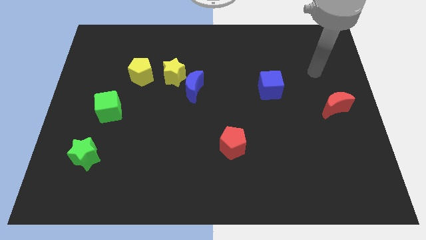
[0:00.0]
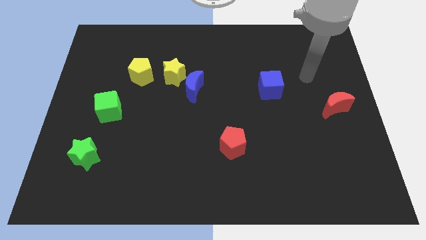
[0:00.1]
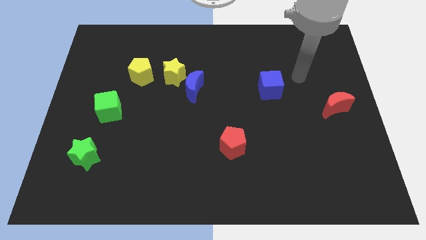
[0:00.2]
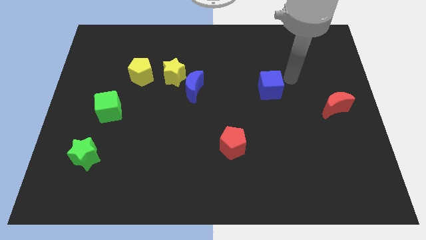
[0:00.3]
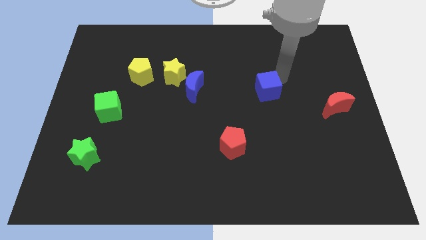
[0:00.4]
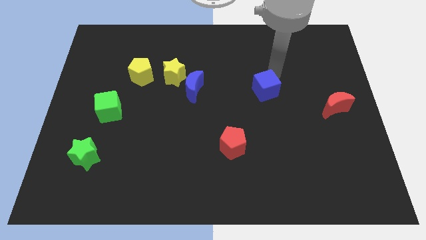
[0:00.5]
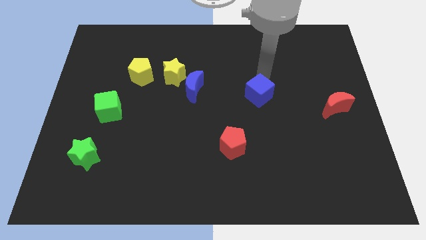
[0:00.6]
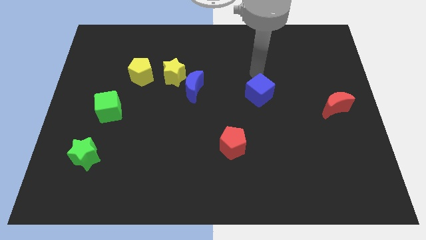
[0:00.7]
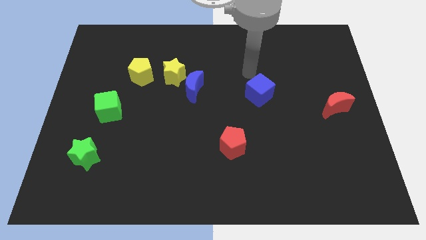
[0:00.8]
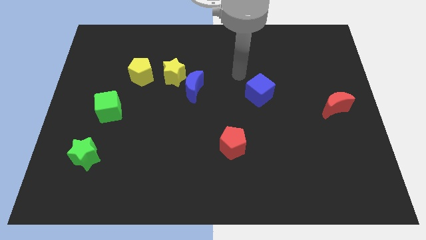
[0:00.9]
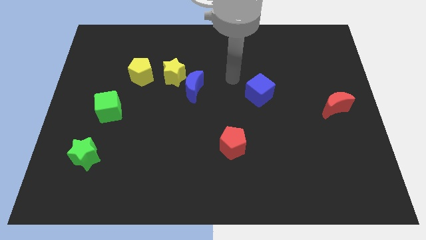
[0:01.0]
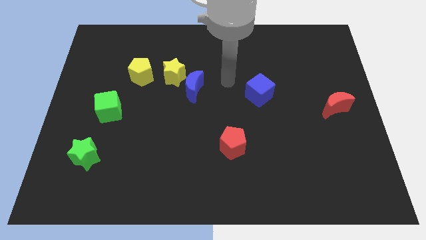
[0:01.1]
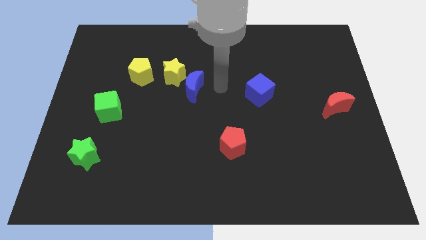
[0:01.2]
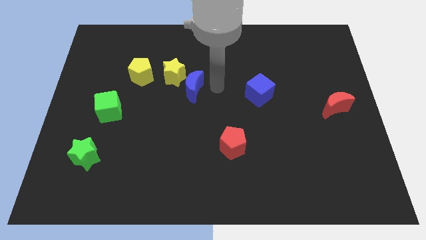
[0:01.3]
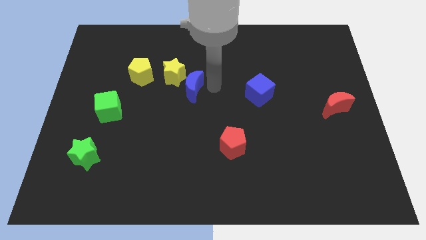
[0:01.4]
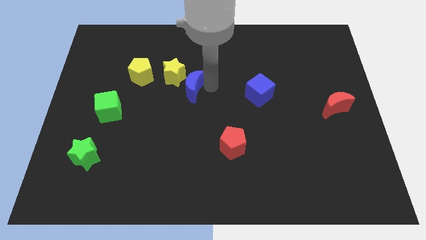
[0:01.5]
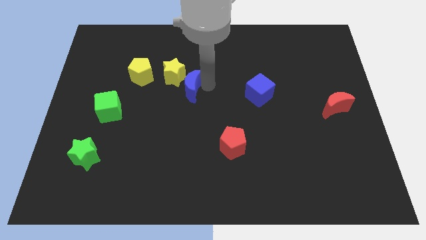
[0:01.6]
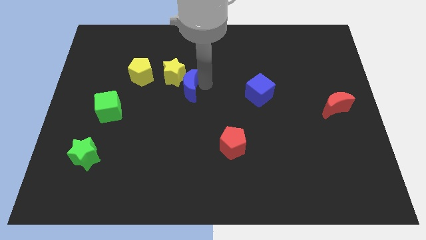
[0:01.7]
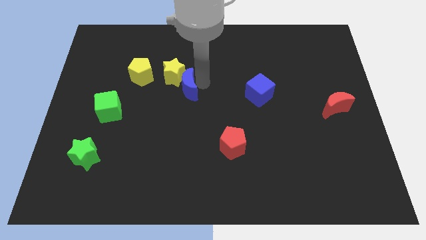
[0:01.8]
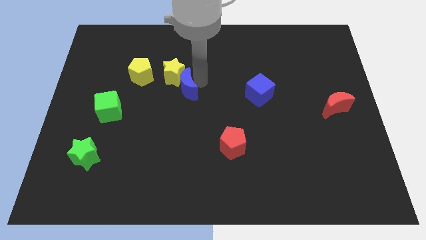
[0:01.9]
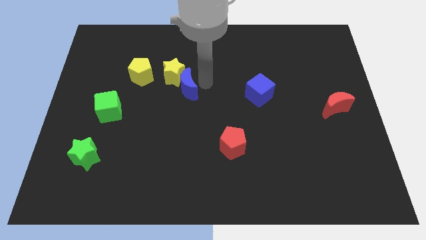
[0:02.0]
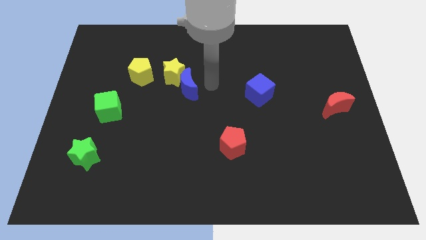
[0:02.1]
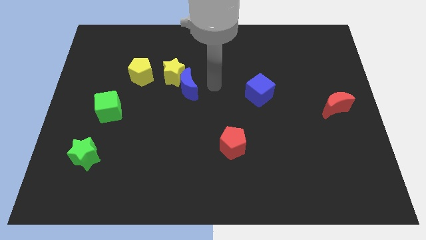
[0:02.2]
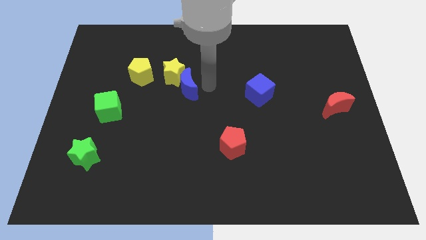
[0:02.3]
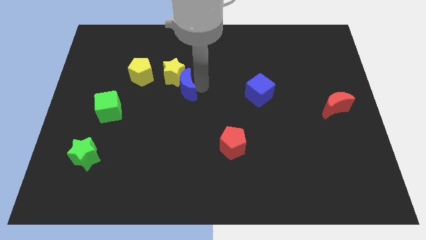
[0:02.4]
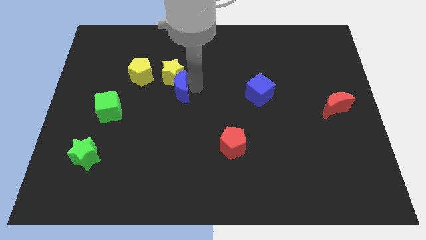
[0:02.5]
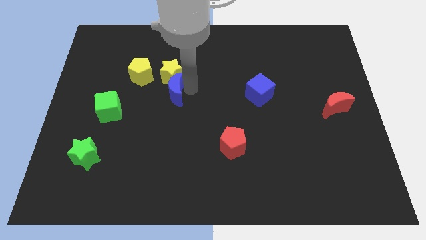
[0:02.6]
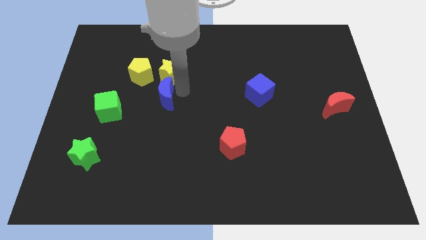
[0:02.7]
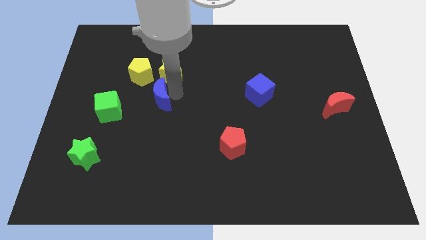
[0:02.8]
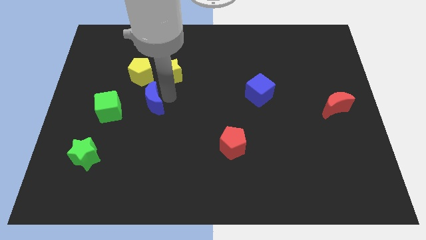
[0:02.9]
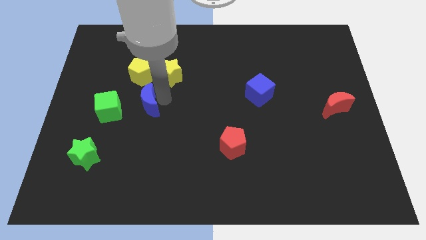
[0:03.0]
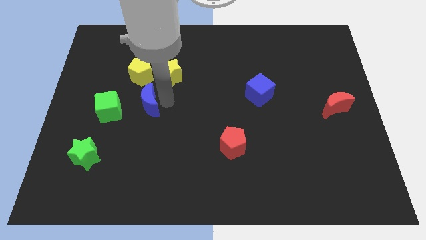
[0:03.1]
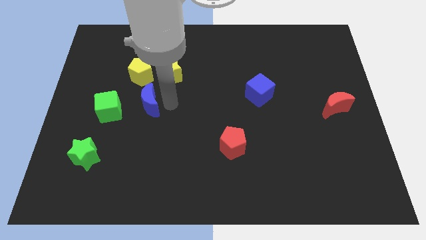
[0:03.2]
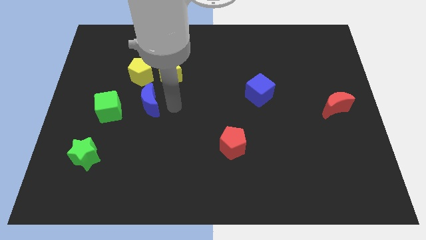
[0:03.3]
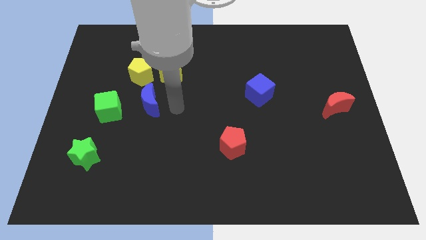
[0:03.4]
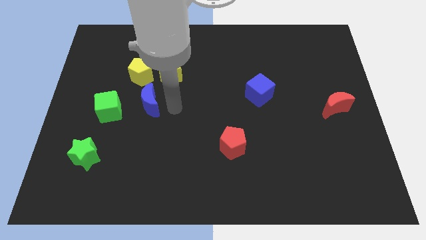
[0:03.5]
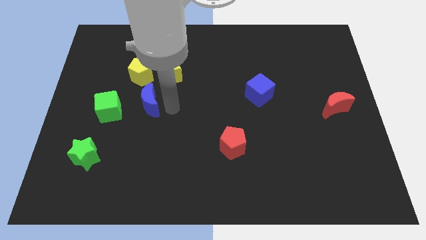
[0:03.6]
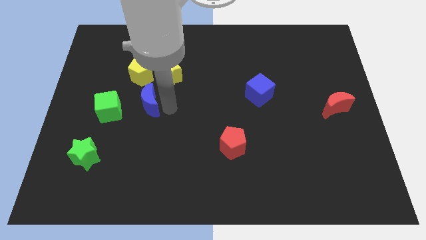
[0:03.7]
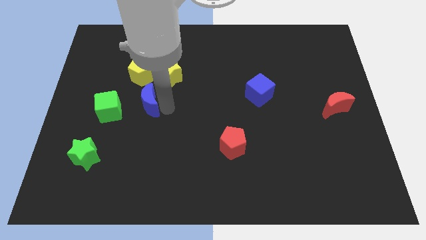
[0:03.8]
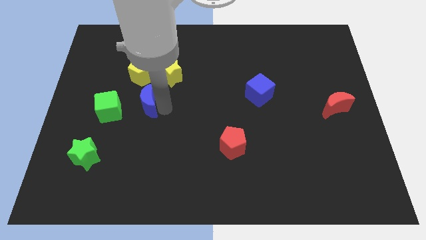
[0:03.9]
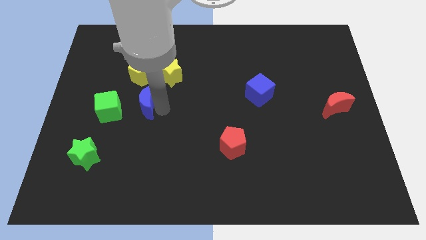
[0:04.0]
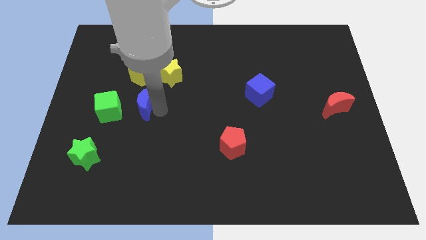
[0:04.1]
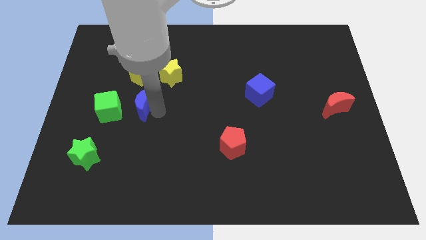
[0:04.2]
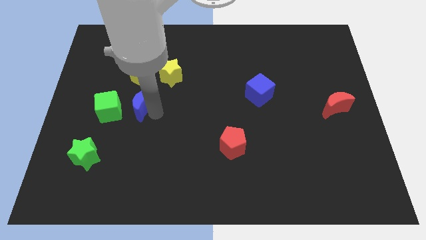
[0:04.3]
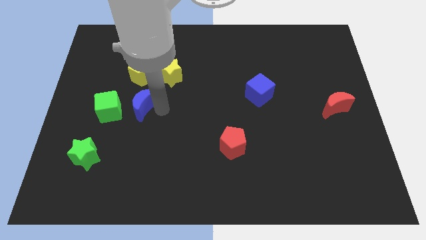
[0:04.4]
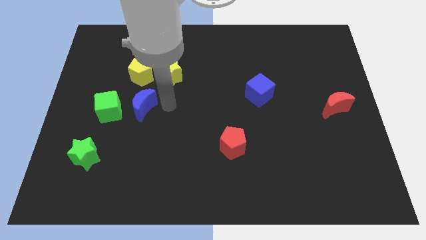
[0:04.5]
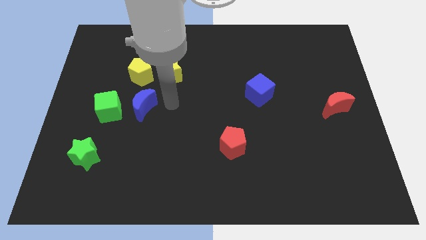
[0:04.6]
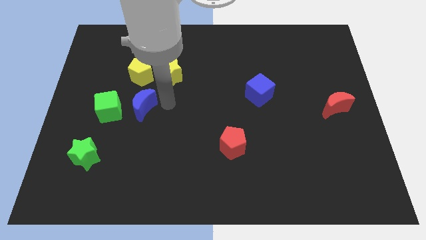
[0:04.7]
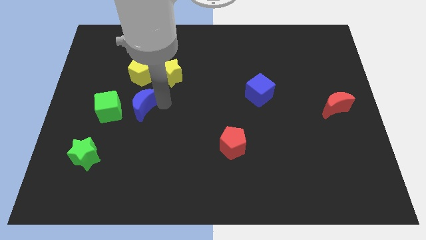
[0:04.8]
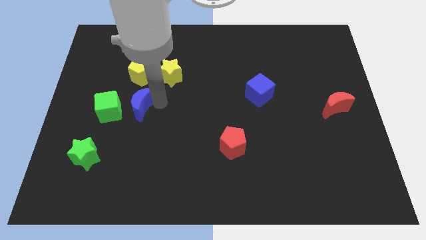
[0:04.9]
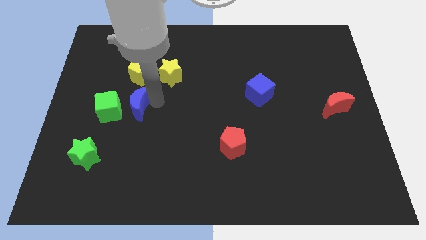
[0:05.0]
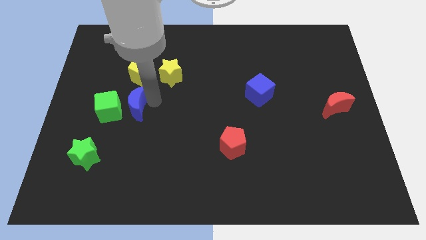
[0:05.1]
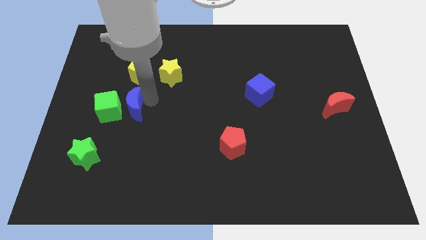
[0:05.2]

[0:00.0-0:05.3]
slide the blue moon next to the green cube

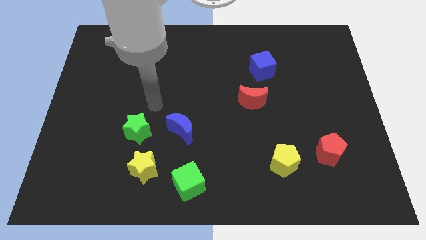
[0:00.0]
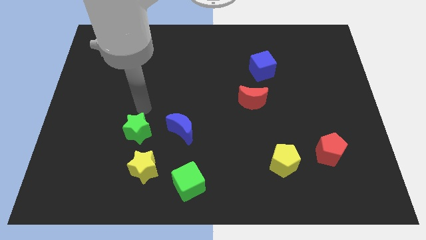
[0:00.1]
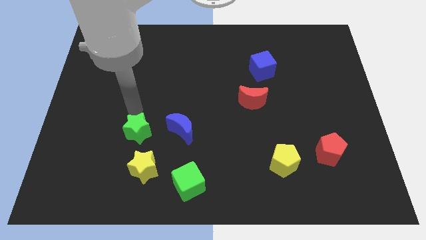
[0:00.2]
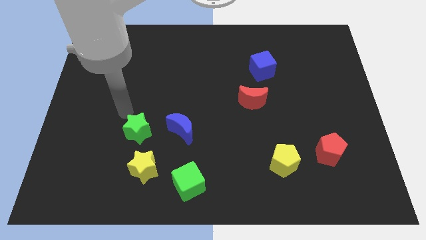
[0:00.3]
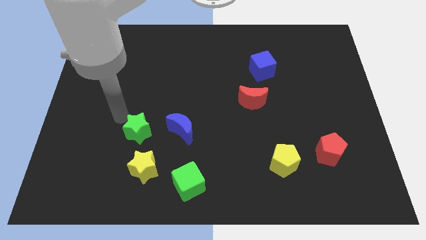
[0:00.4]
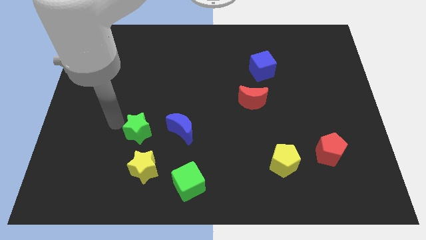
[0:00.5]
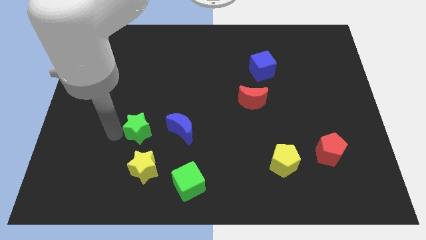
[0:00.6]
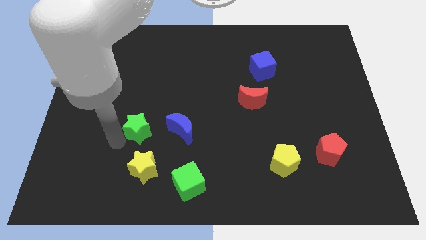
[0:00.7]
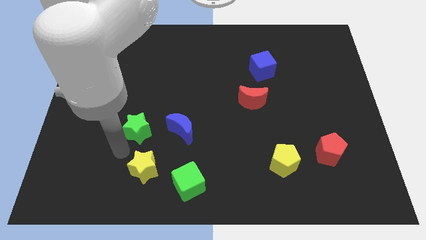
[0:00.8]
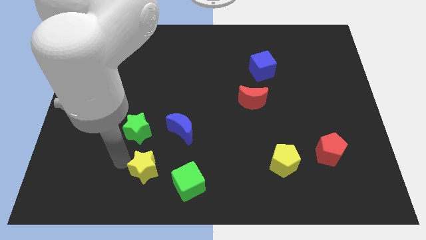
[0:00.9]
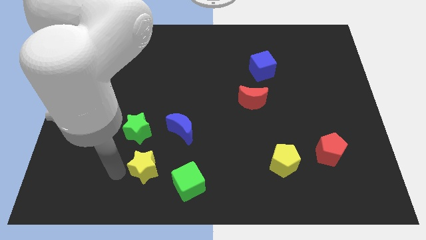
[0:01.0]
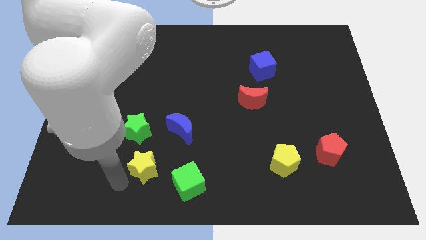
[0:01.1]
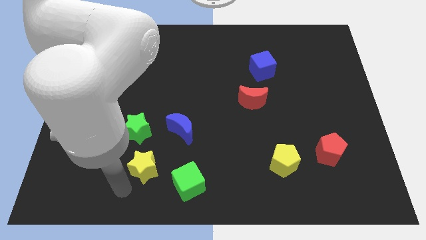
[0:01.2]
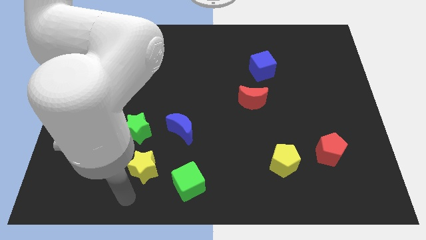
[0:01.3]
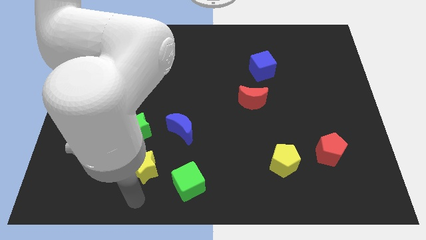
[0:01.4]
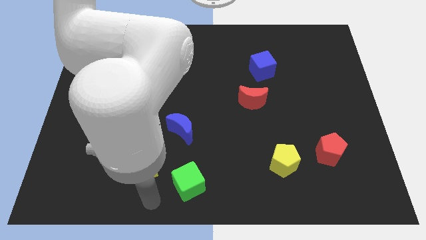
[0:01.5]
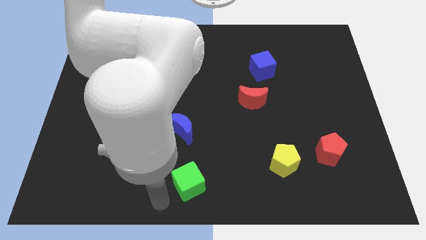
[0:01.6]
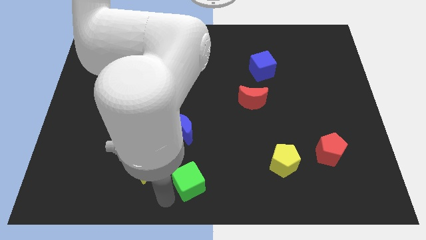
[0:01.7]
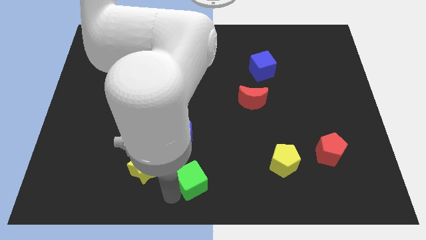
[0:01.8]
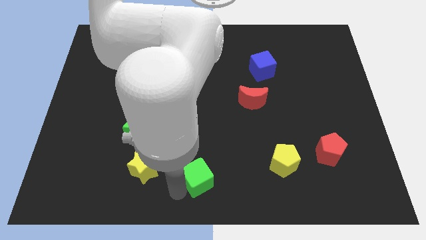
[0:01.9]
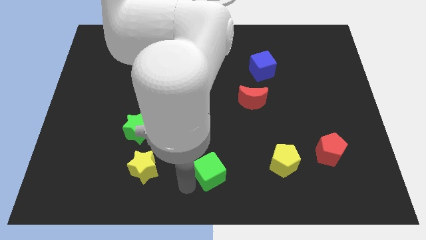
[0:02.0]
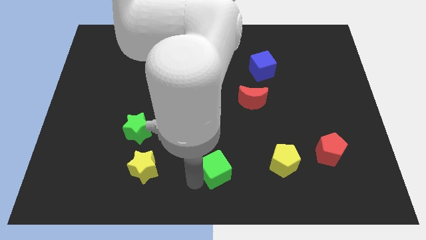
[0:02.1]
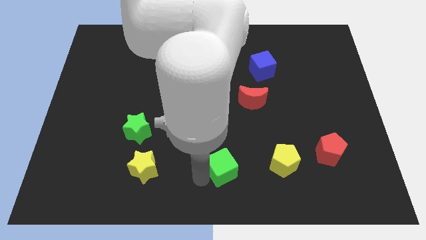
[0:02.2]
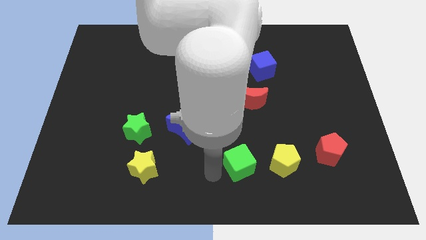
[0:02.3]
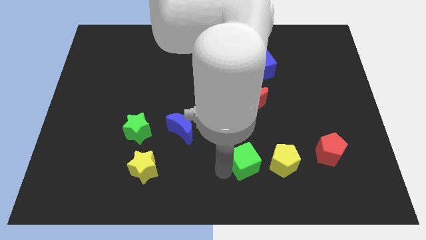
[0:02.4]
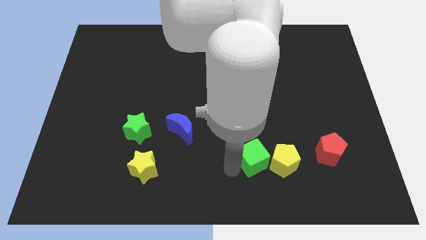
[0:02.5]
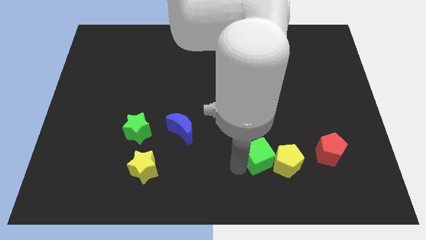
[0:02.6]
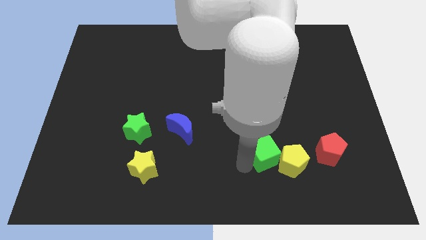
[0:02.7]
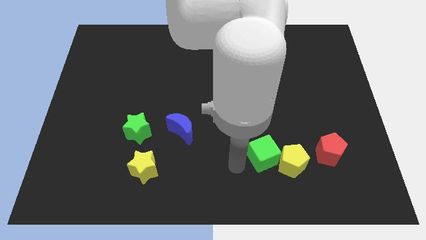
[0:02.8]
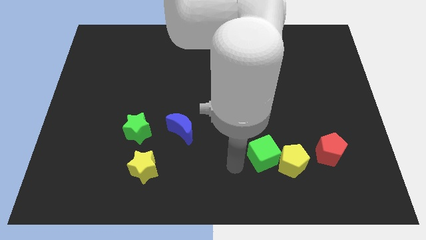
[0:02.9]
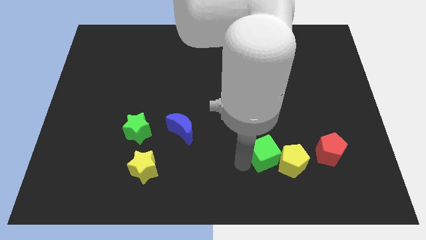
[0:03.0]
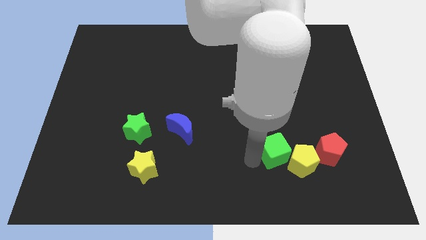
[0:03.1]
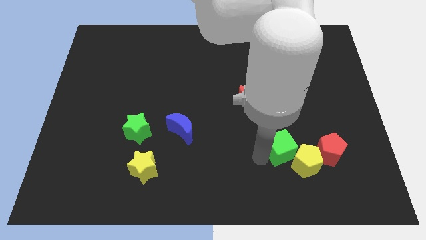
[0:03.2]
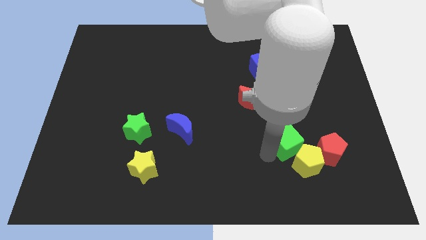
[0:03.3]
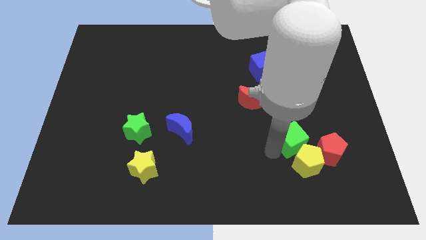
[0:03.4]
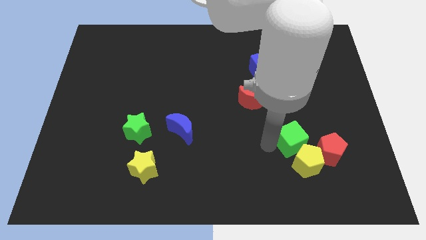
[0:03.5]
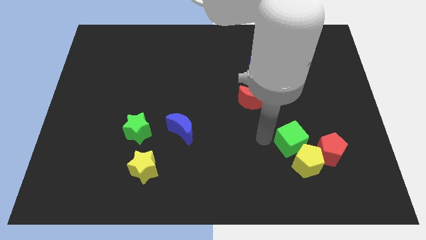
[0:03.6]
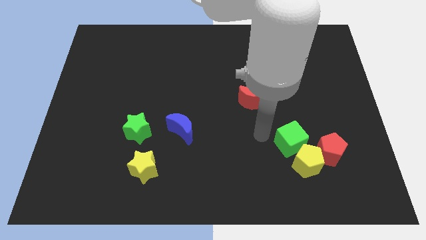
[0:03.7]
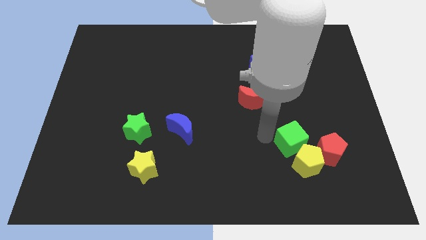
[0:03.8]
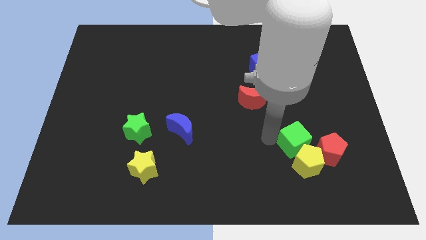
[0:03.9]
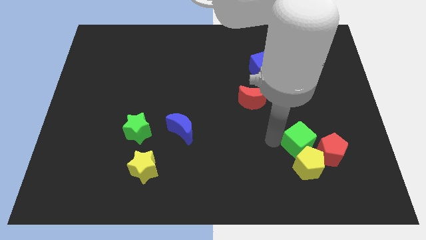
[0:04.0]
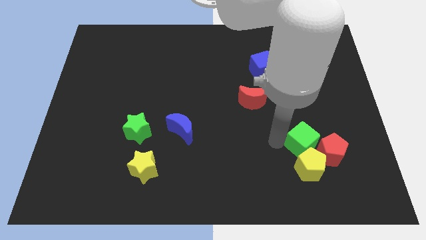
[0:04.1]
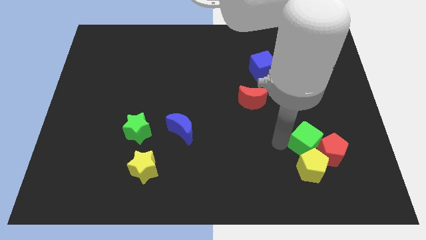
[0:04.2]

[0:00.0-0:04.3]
move the green cube close to the red pentagon
